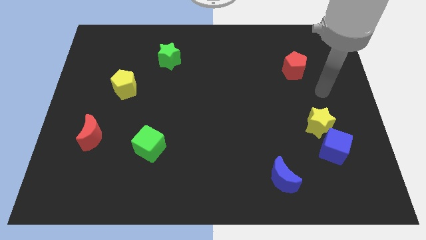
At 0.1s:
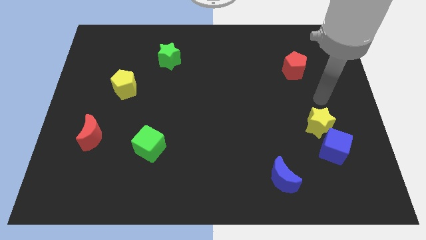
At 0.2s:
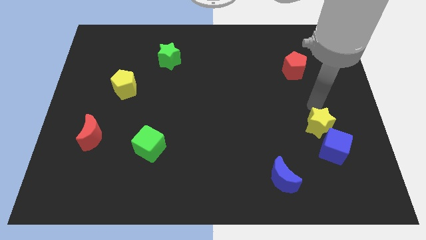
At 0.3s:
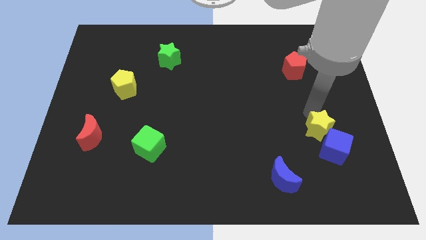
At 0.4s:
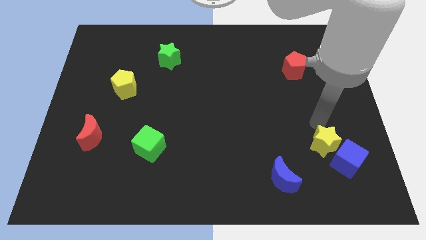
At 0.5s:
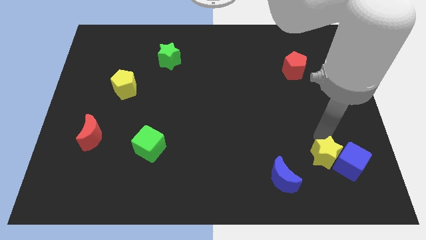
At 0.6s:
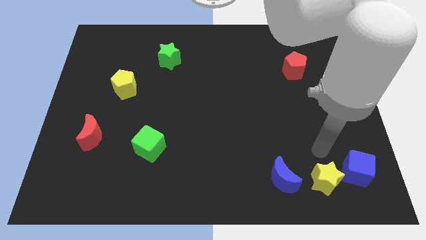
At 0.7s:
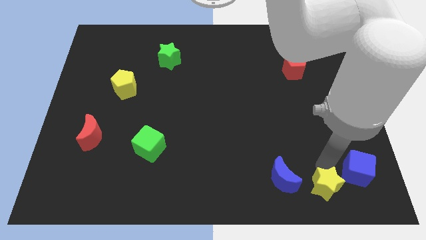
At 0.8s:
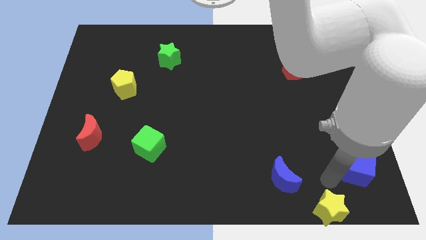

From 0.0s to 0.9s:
separate the blue cube from the yellow star

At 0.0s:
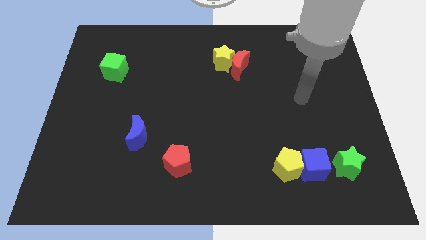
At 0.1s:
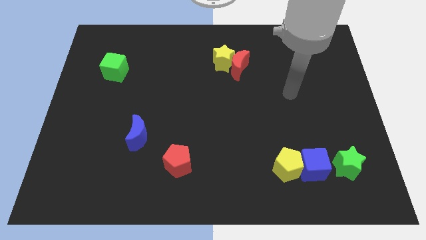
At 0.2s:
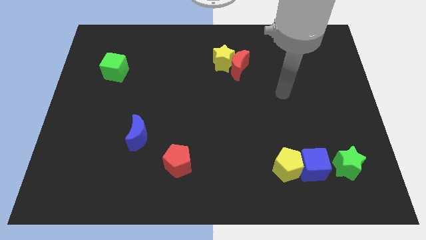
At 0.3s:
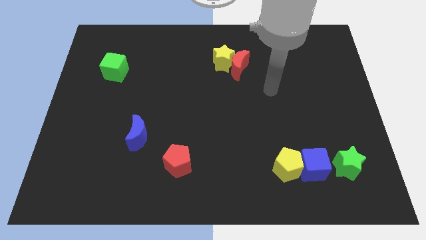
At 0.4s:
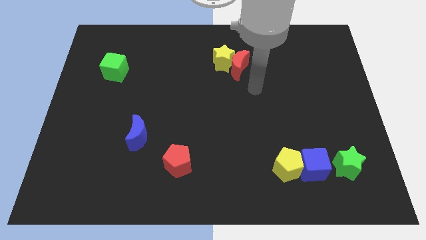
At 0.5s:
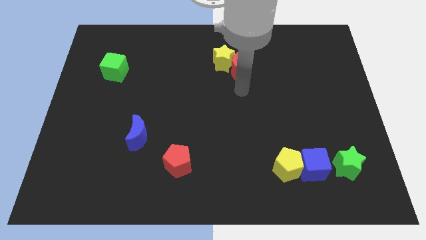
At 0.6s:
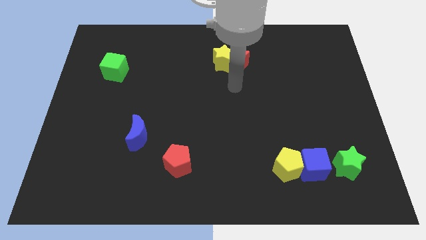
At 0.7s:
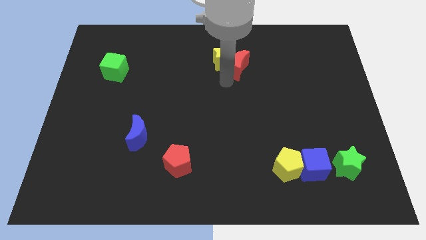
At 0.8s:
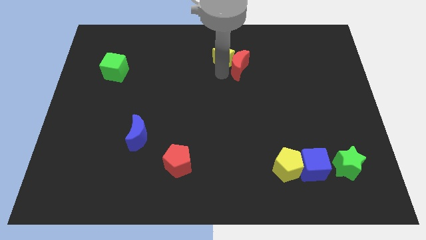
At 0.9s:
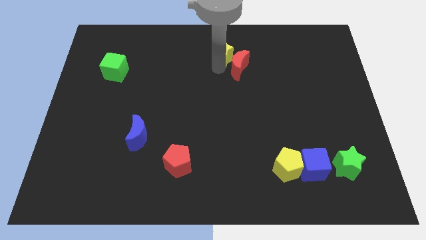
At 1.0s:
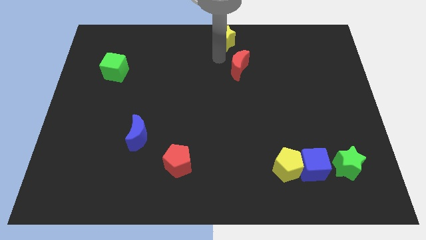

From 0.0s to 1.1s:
separate the red moon from the yellow star

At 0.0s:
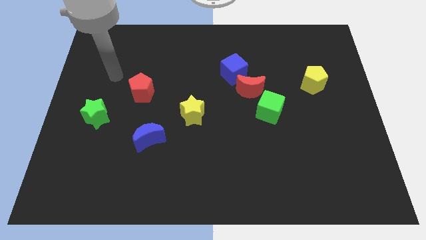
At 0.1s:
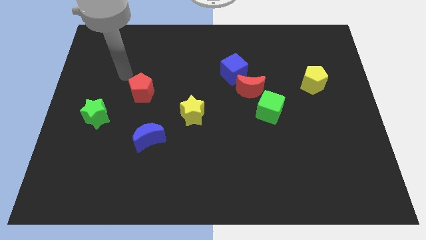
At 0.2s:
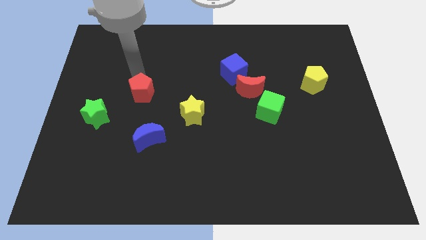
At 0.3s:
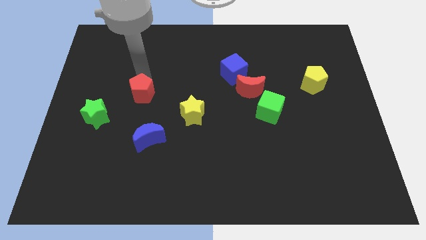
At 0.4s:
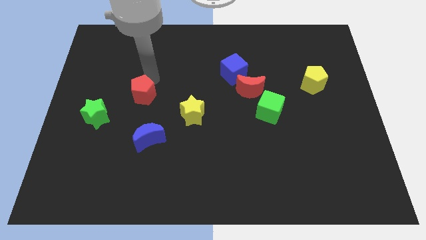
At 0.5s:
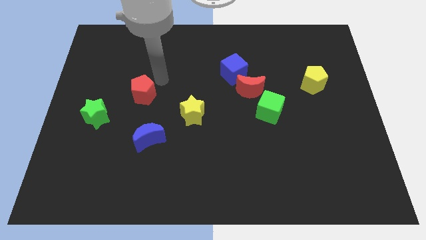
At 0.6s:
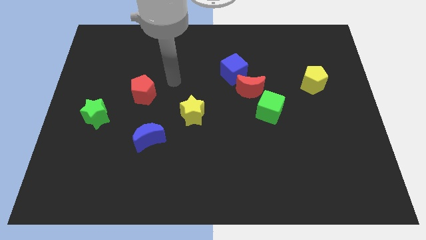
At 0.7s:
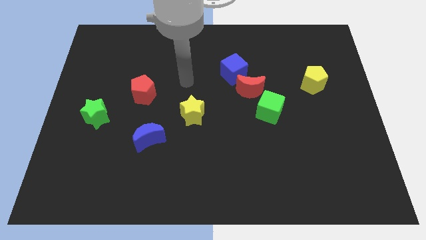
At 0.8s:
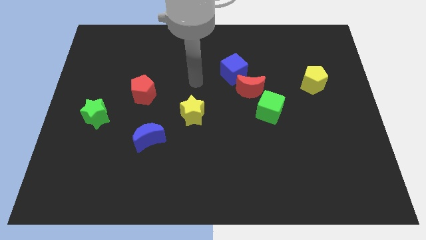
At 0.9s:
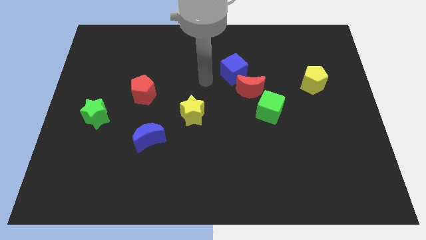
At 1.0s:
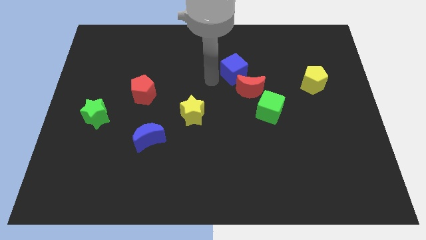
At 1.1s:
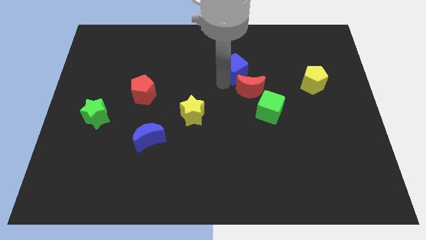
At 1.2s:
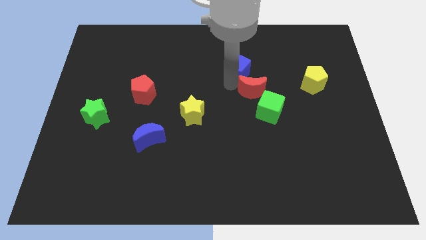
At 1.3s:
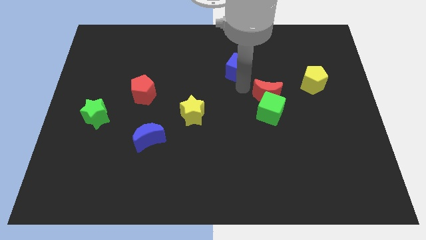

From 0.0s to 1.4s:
move the blue cube away from the red moon

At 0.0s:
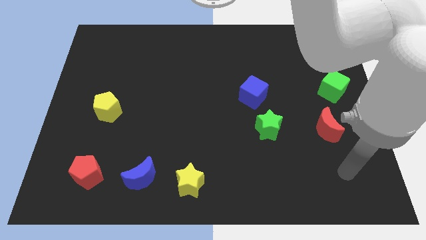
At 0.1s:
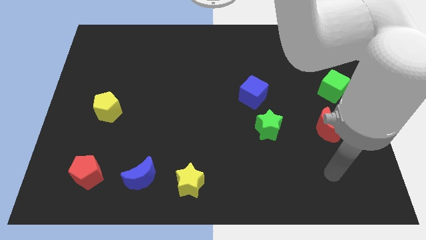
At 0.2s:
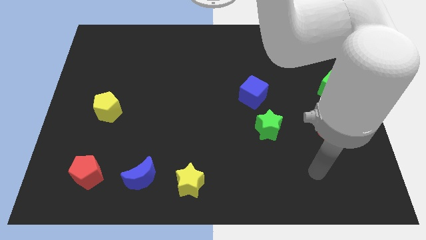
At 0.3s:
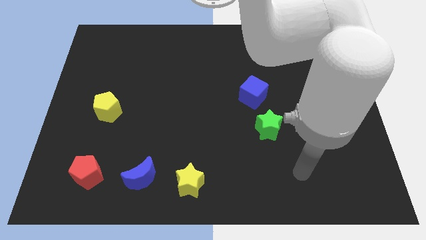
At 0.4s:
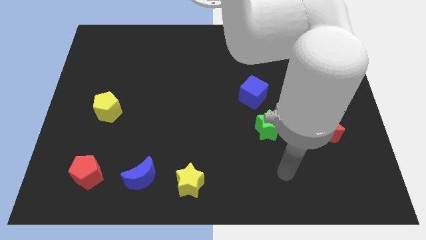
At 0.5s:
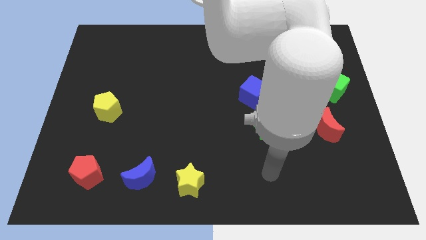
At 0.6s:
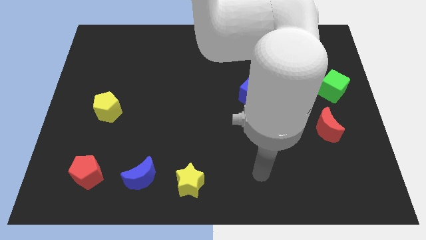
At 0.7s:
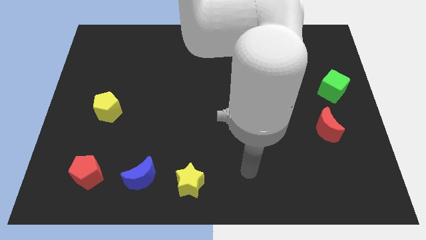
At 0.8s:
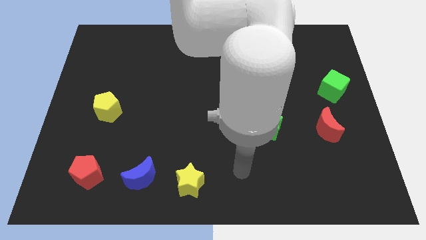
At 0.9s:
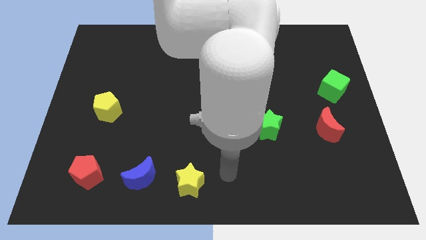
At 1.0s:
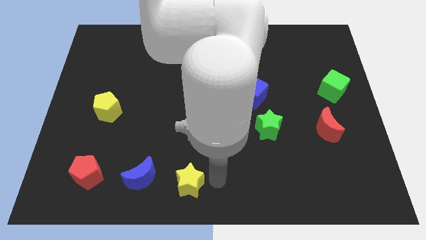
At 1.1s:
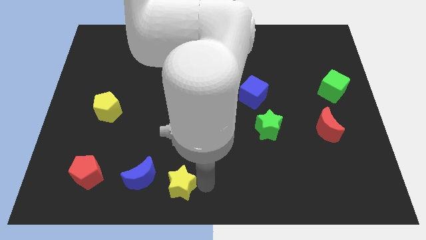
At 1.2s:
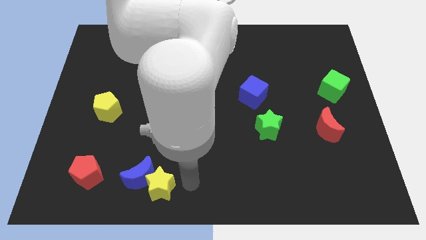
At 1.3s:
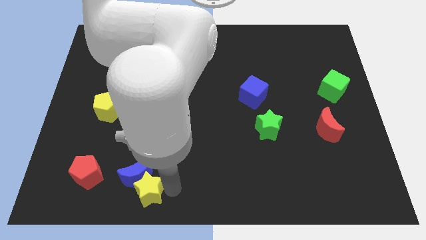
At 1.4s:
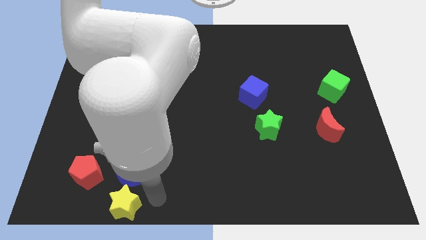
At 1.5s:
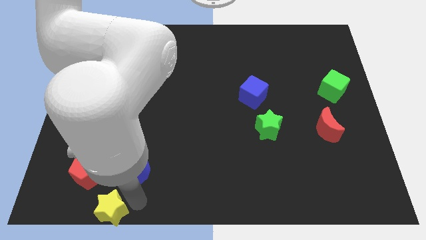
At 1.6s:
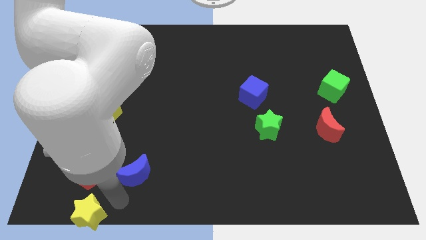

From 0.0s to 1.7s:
move the blue moon away from the yellow star

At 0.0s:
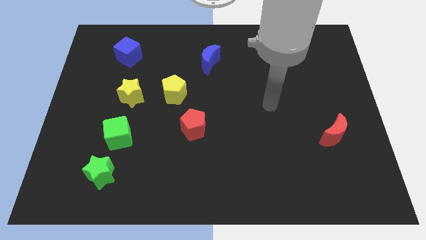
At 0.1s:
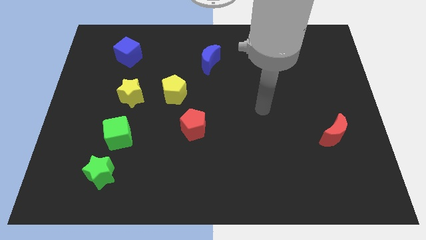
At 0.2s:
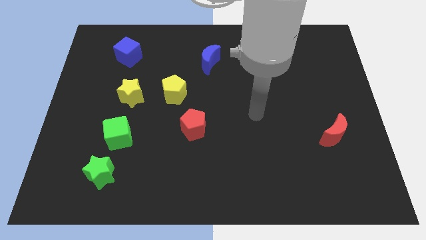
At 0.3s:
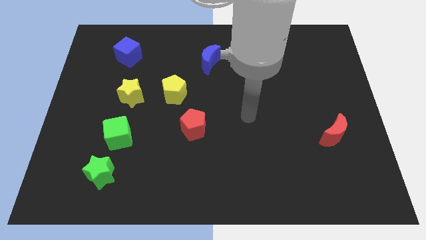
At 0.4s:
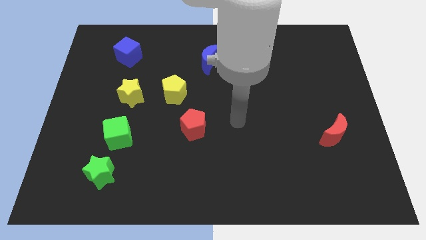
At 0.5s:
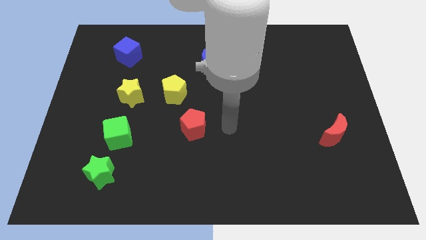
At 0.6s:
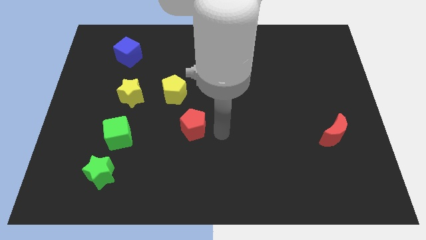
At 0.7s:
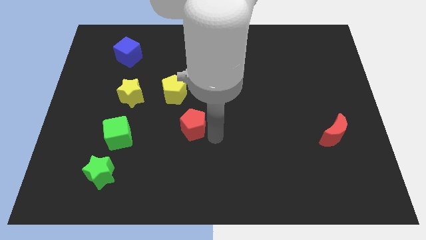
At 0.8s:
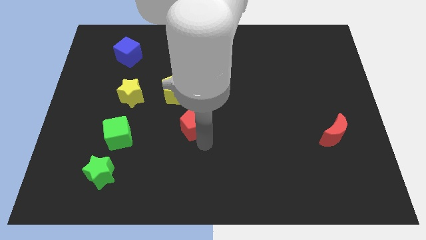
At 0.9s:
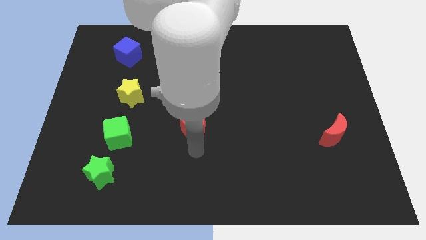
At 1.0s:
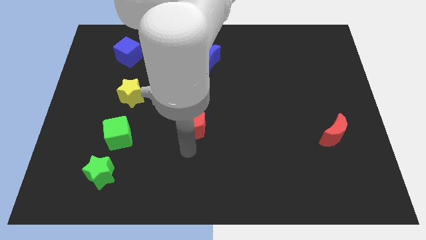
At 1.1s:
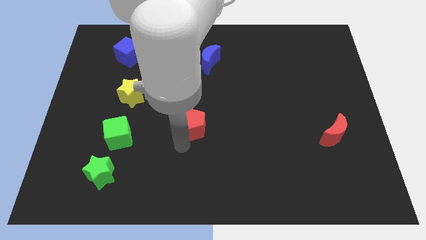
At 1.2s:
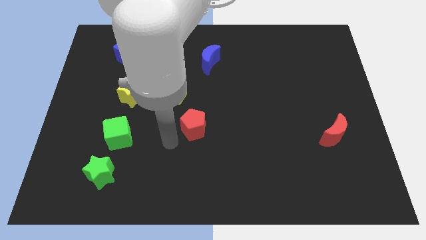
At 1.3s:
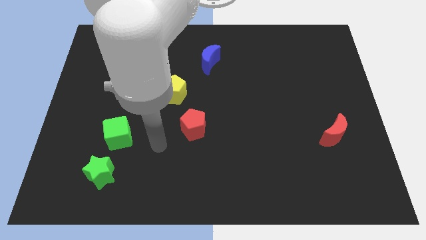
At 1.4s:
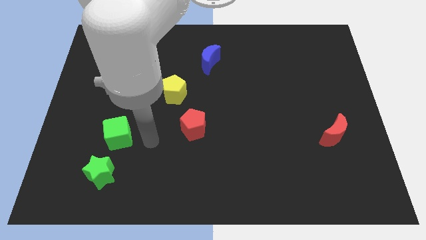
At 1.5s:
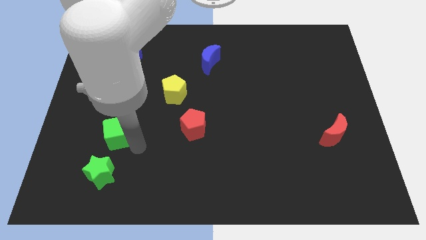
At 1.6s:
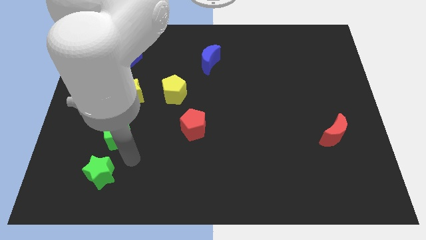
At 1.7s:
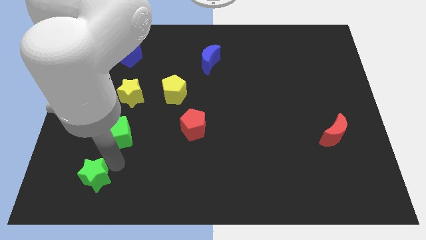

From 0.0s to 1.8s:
pull the green cube apart from the green star

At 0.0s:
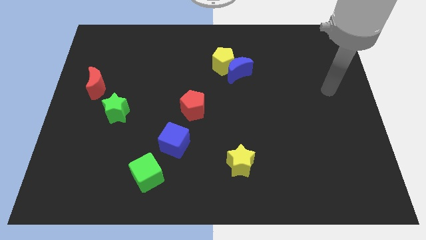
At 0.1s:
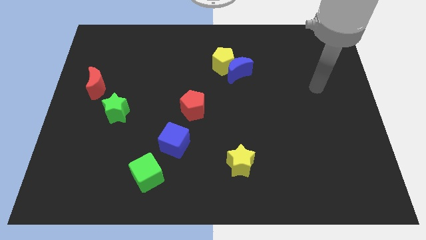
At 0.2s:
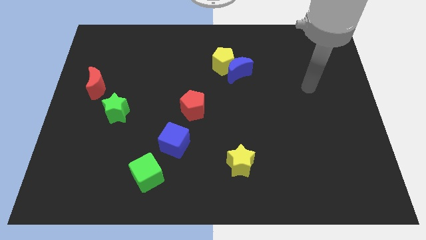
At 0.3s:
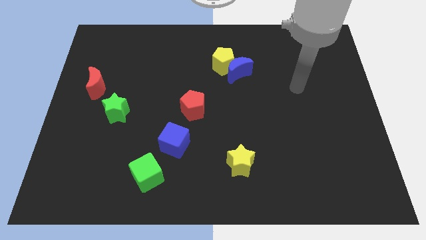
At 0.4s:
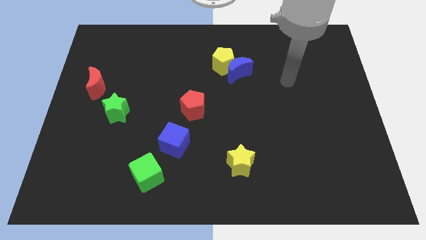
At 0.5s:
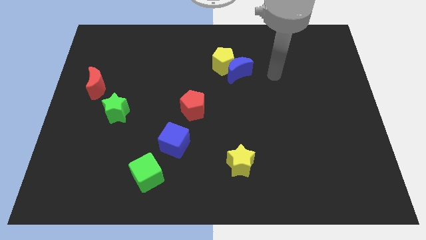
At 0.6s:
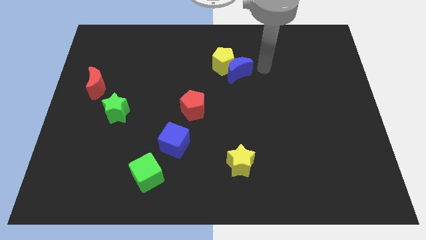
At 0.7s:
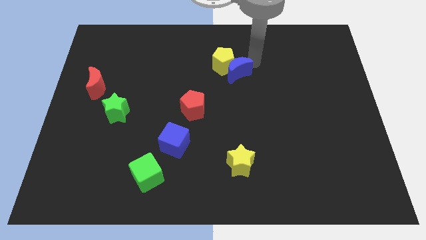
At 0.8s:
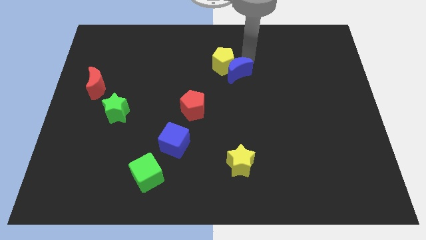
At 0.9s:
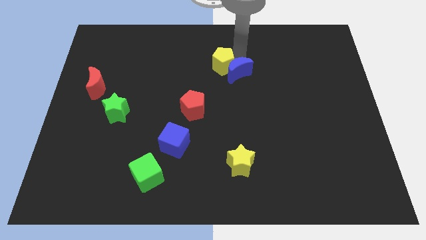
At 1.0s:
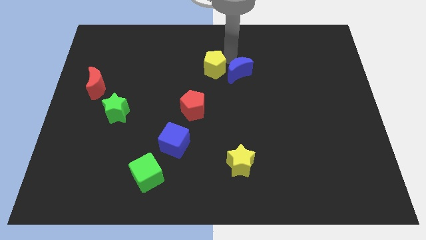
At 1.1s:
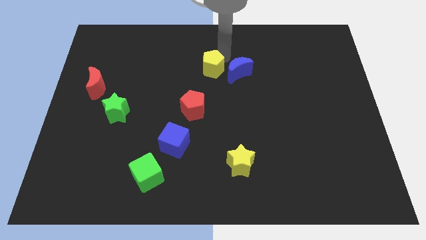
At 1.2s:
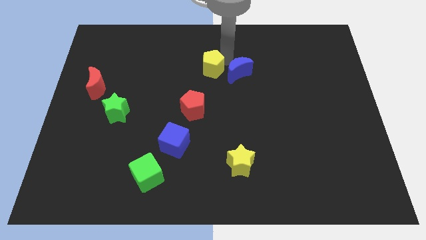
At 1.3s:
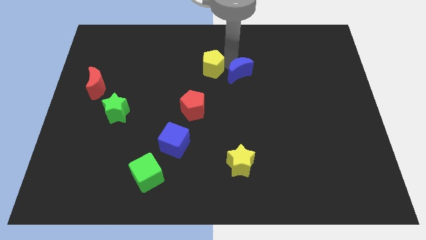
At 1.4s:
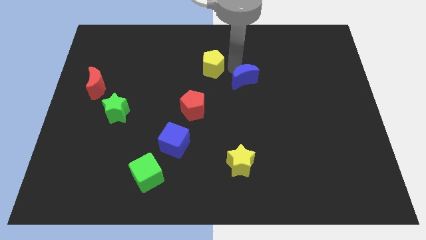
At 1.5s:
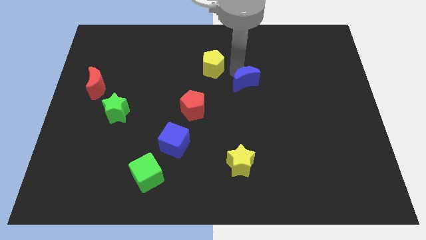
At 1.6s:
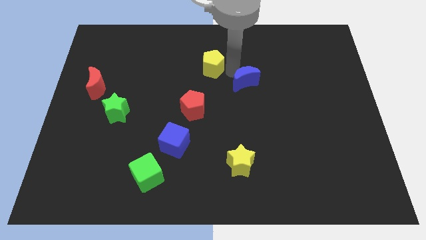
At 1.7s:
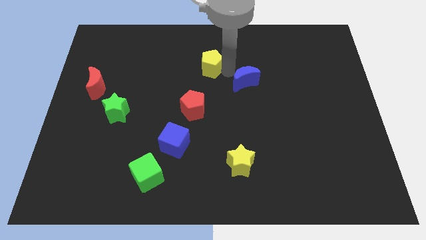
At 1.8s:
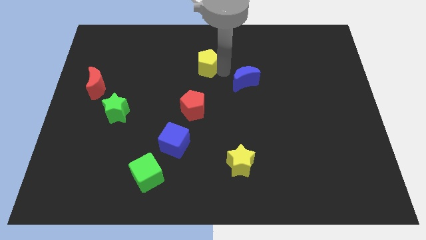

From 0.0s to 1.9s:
pull the blue moon apart from the yellow pentagon

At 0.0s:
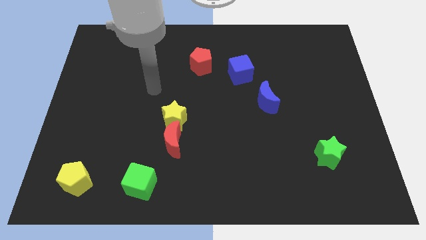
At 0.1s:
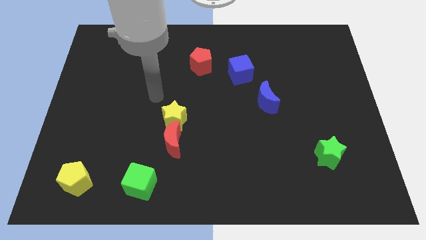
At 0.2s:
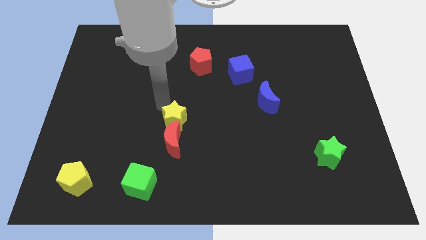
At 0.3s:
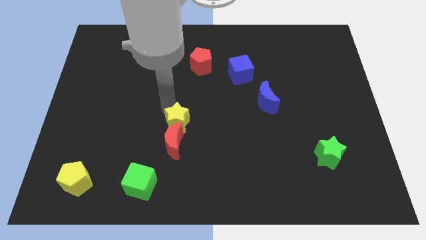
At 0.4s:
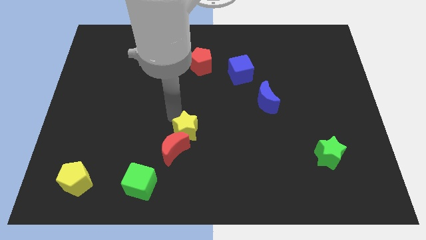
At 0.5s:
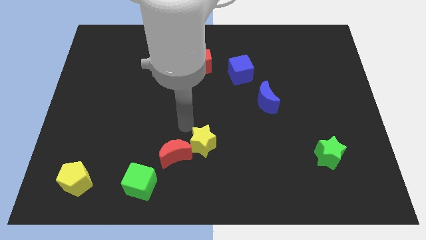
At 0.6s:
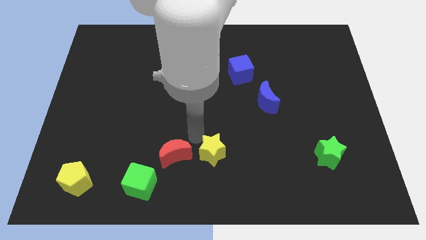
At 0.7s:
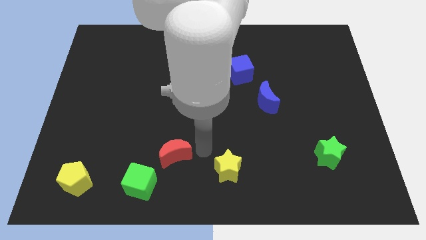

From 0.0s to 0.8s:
pull the red moon apart from the yellow star
